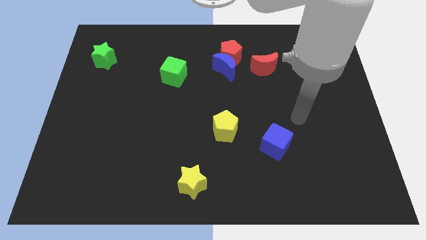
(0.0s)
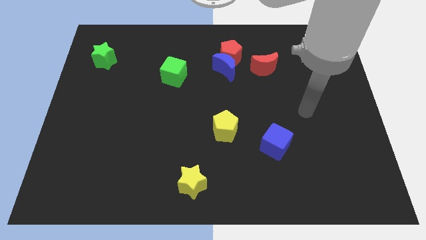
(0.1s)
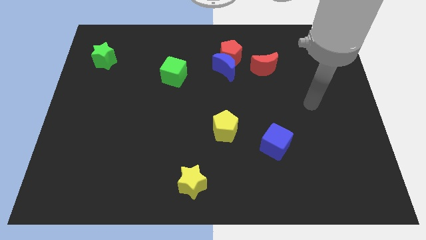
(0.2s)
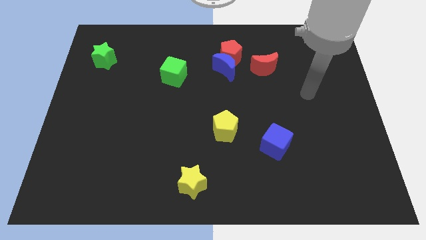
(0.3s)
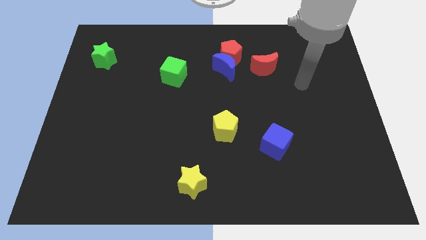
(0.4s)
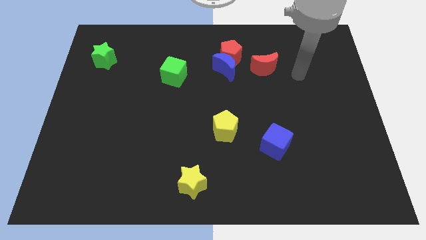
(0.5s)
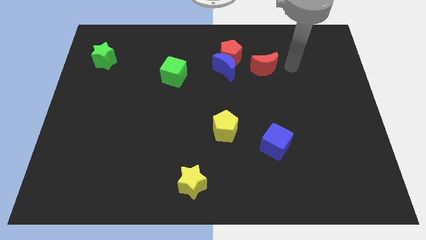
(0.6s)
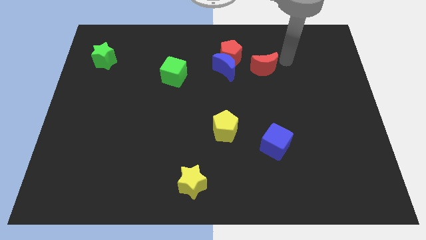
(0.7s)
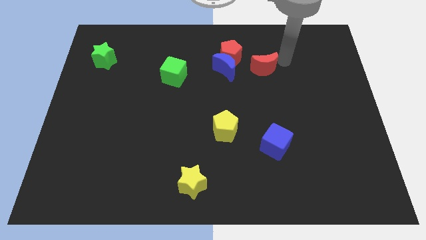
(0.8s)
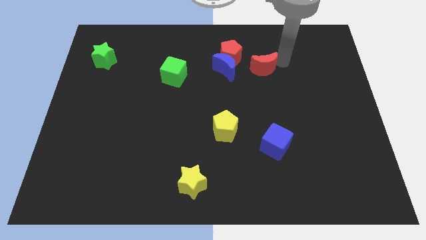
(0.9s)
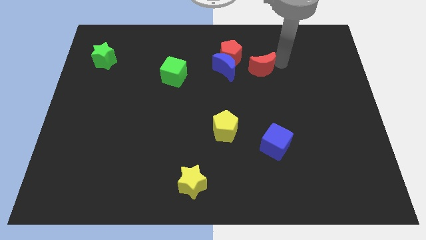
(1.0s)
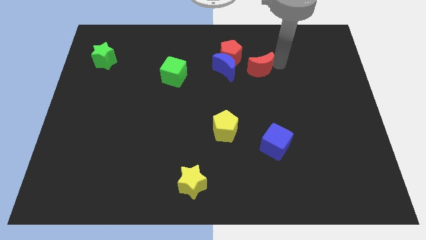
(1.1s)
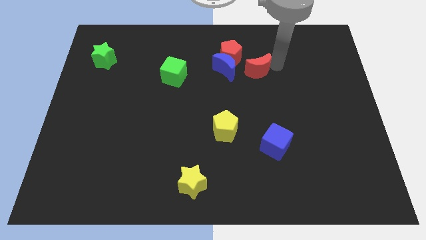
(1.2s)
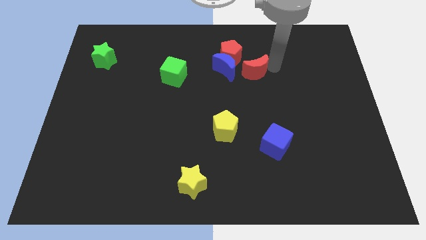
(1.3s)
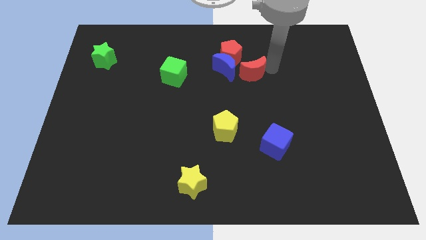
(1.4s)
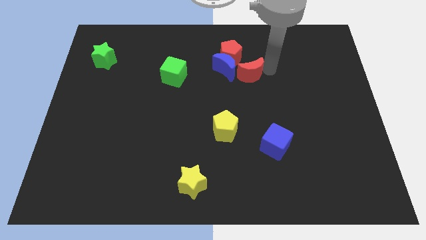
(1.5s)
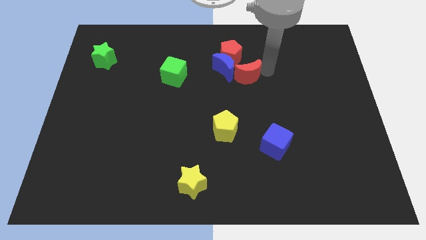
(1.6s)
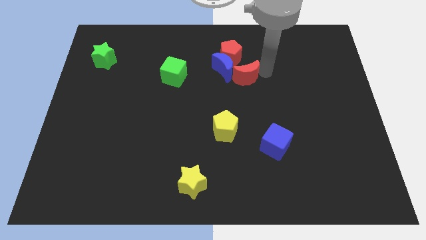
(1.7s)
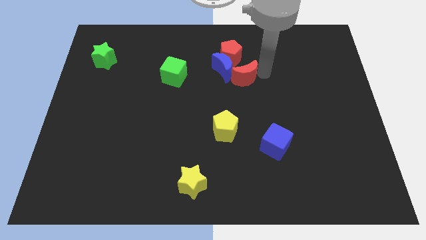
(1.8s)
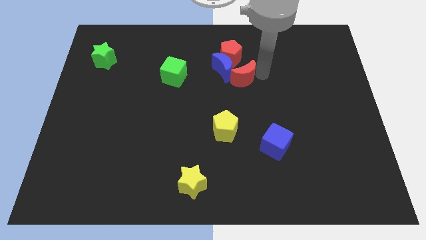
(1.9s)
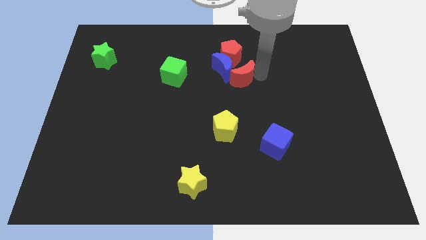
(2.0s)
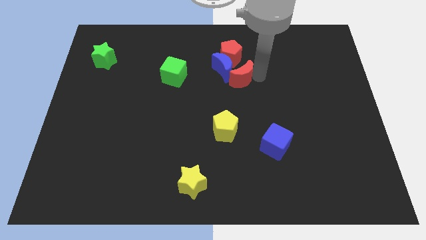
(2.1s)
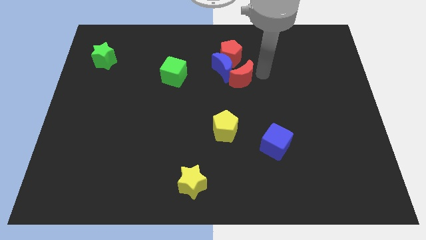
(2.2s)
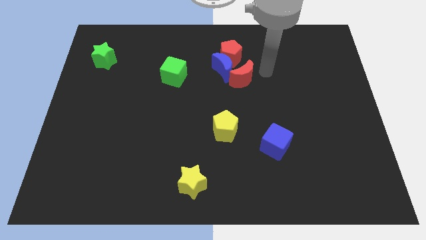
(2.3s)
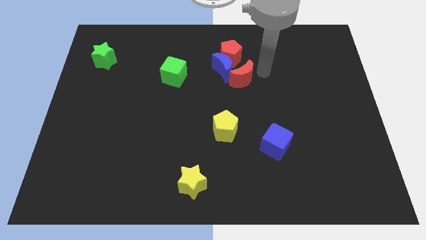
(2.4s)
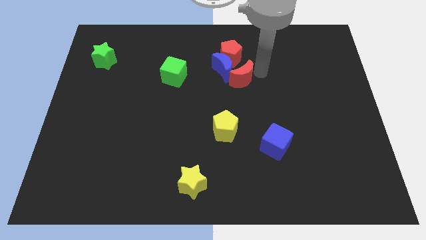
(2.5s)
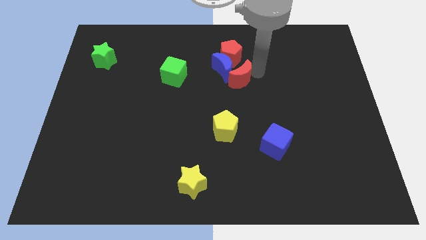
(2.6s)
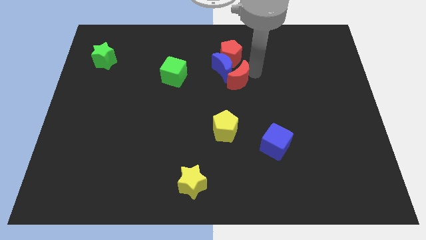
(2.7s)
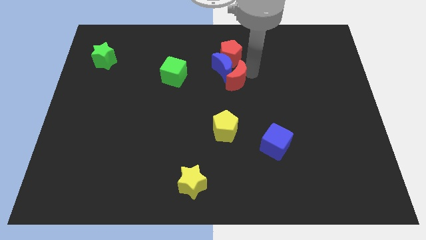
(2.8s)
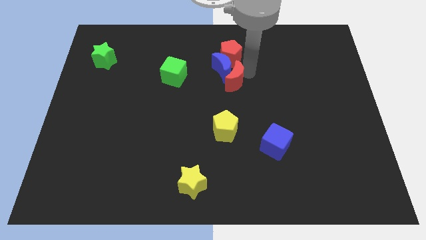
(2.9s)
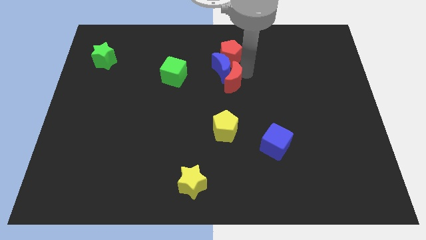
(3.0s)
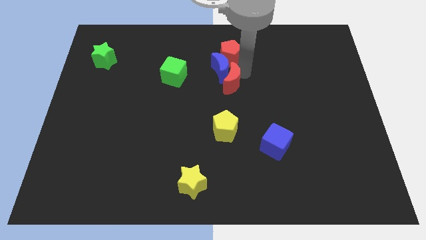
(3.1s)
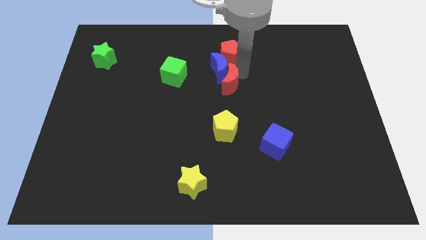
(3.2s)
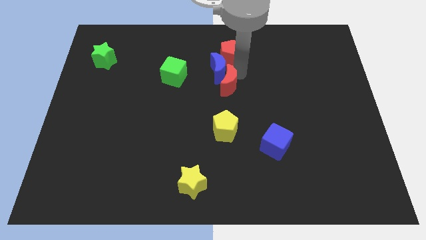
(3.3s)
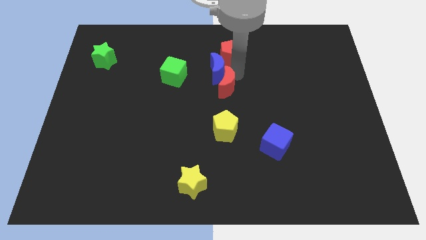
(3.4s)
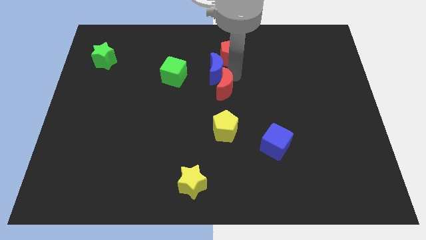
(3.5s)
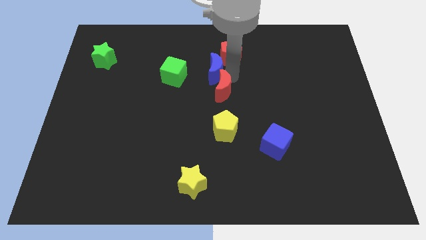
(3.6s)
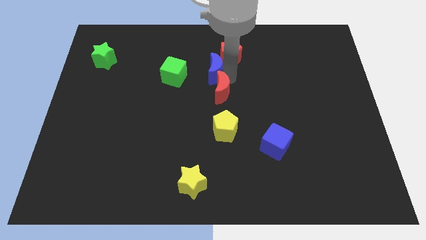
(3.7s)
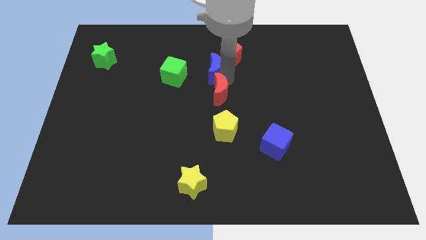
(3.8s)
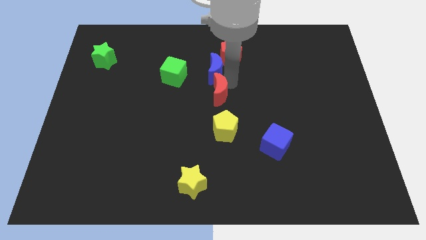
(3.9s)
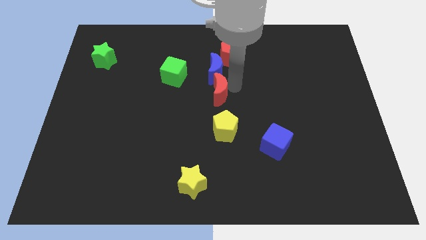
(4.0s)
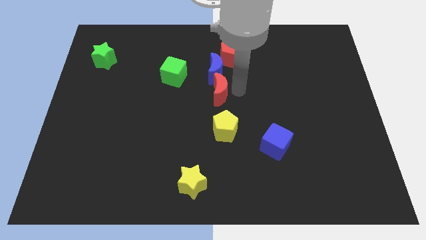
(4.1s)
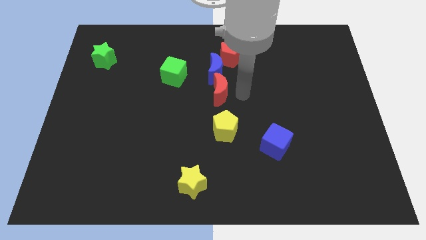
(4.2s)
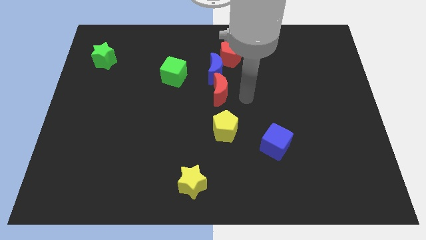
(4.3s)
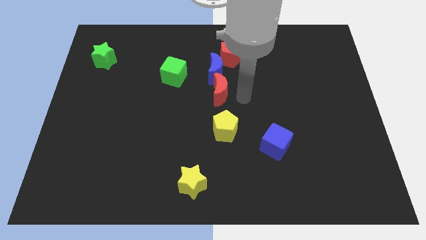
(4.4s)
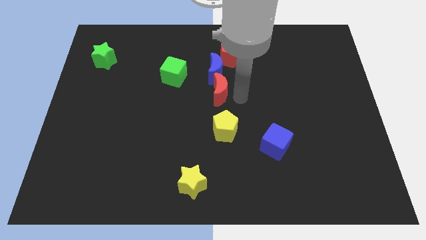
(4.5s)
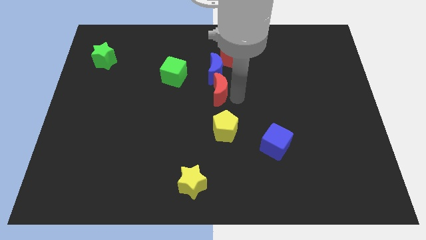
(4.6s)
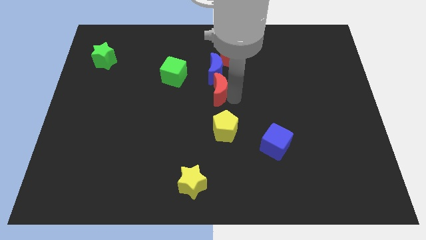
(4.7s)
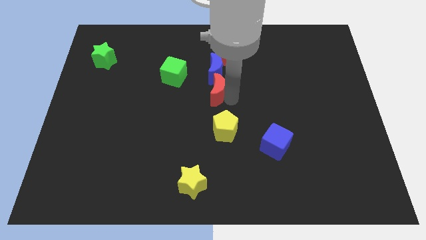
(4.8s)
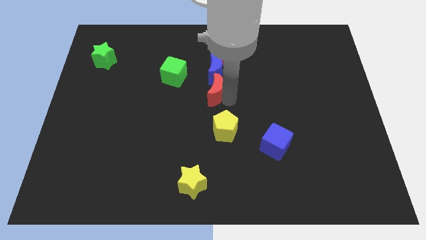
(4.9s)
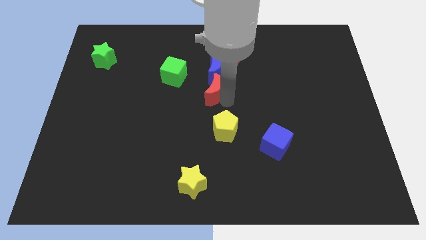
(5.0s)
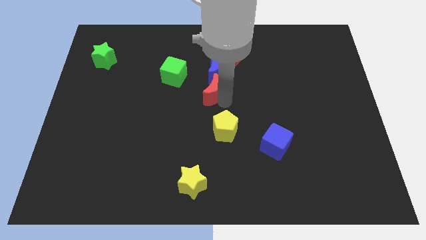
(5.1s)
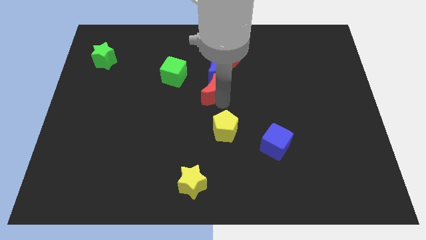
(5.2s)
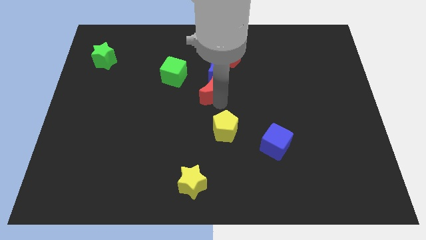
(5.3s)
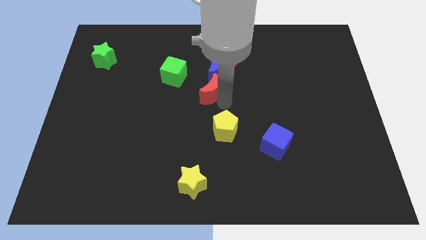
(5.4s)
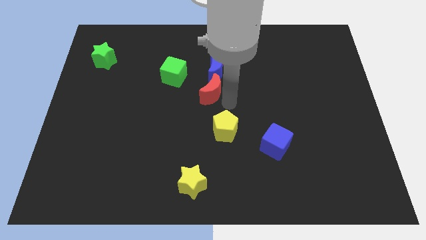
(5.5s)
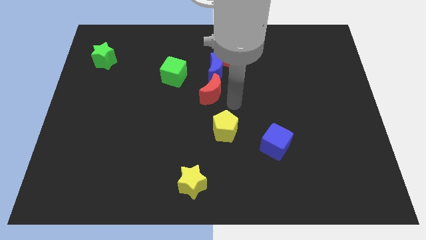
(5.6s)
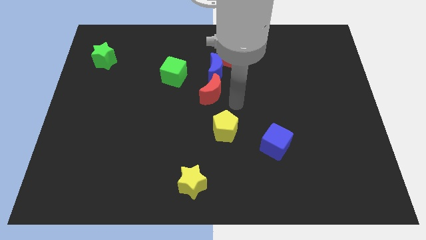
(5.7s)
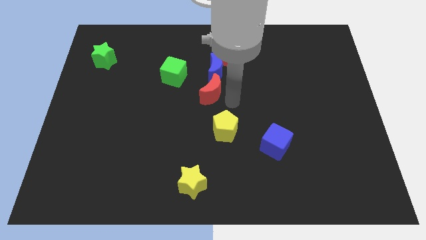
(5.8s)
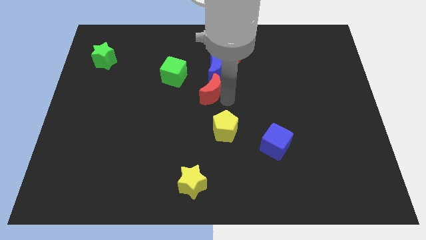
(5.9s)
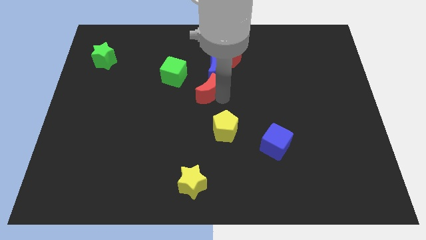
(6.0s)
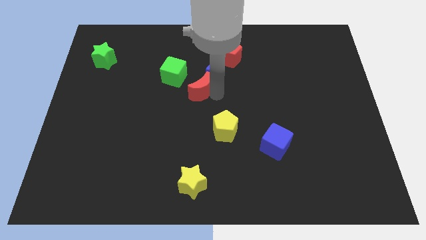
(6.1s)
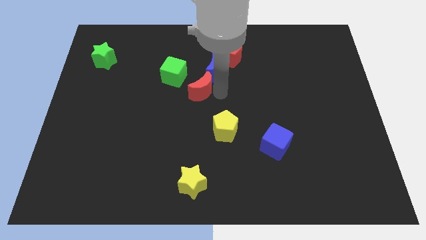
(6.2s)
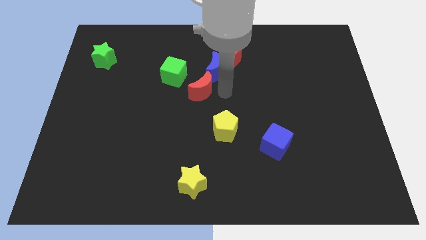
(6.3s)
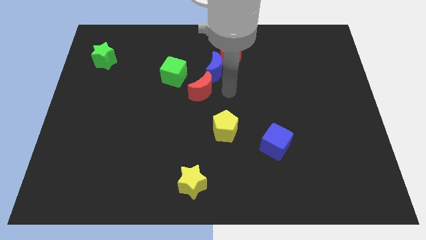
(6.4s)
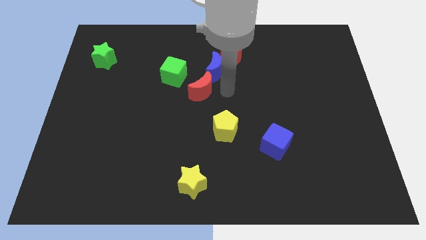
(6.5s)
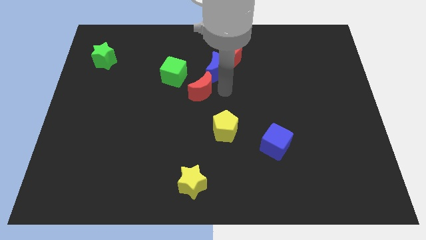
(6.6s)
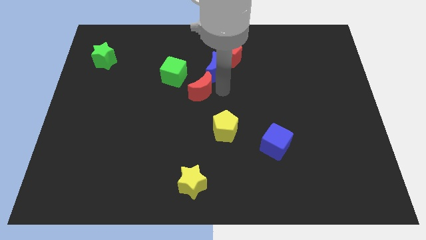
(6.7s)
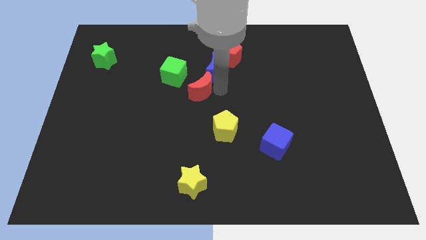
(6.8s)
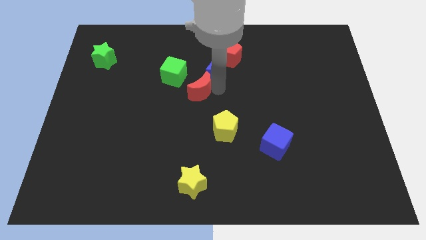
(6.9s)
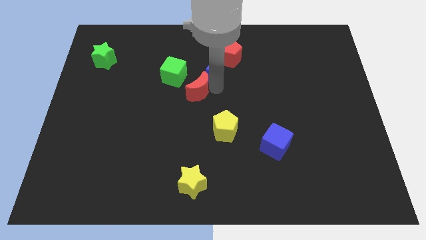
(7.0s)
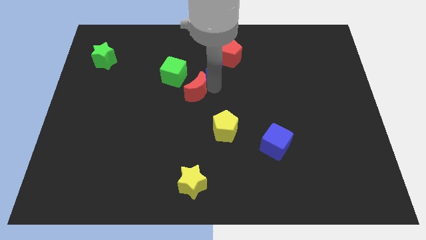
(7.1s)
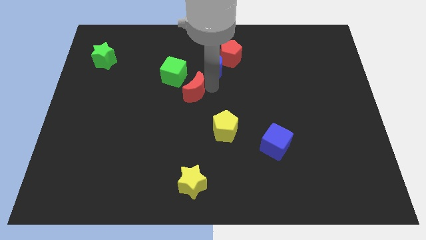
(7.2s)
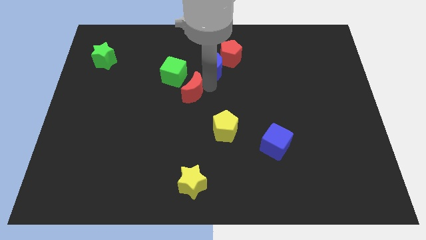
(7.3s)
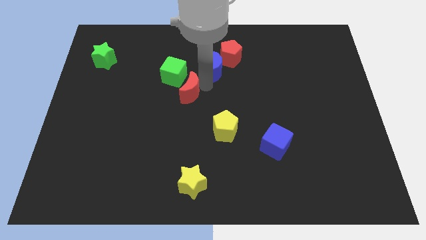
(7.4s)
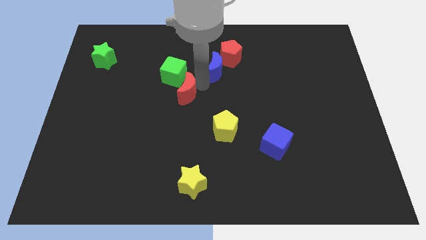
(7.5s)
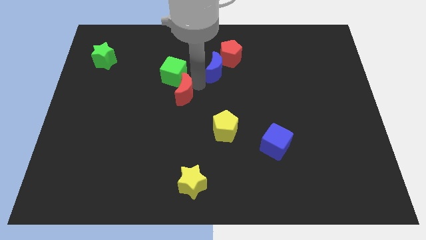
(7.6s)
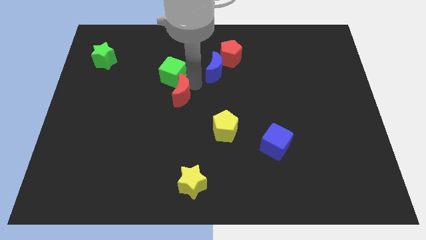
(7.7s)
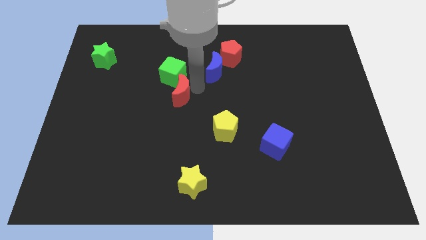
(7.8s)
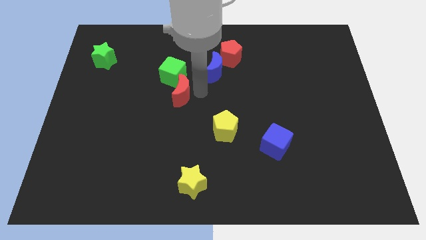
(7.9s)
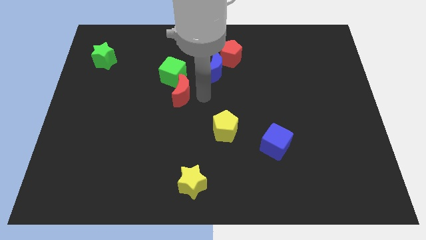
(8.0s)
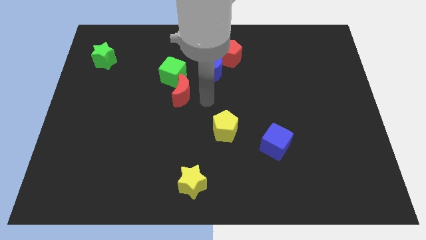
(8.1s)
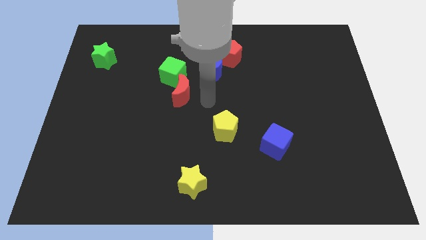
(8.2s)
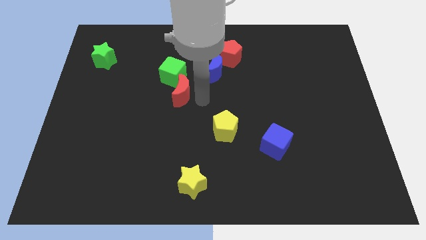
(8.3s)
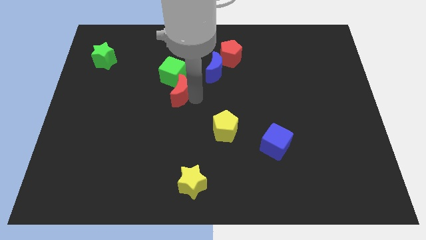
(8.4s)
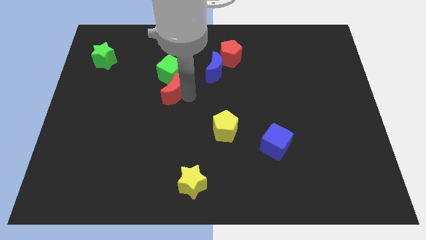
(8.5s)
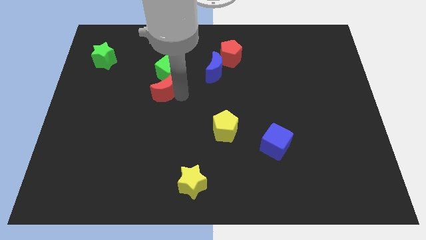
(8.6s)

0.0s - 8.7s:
move the red moon to the left
